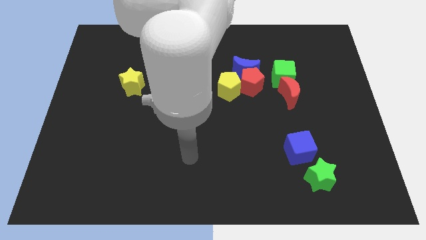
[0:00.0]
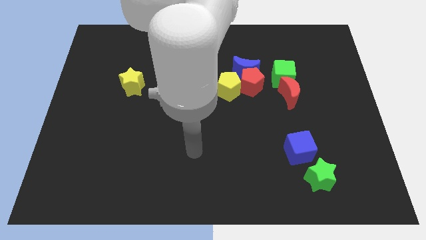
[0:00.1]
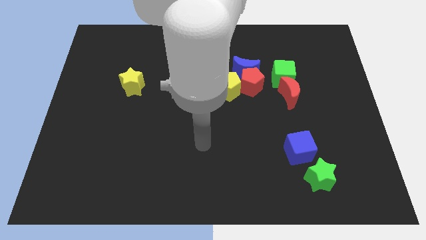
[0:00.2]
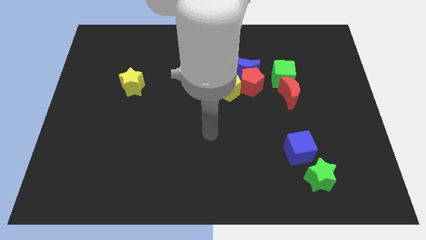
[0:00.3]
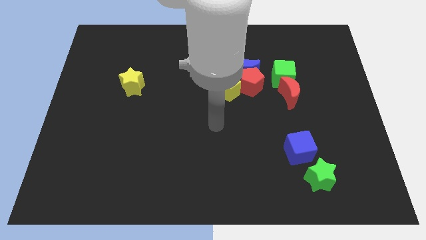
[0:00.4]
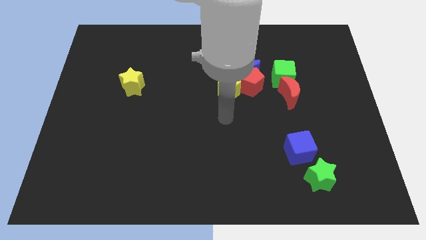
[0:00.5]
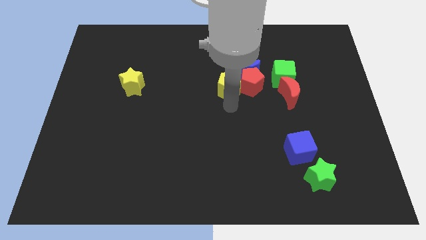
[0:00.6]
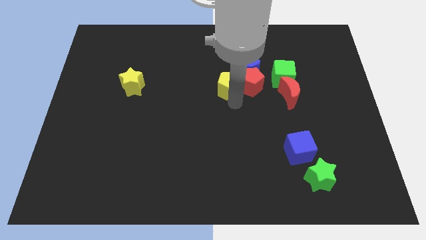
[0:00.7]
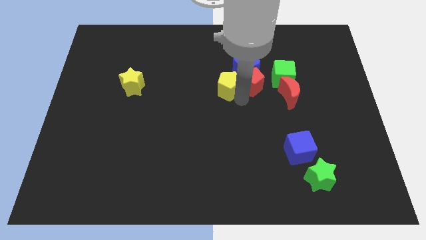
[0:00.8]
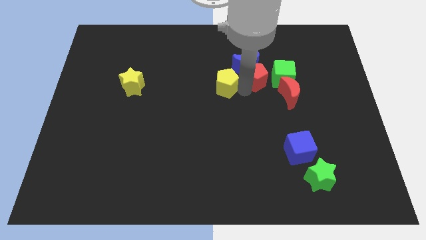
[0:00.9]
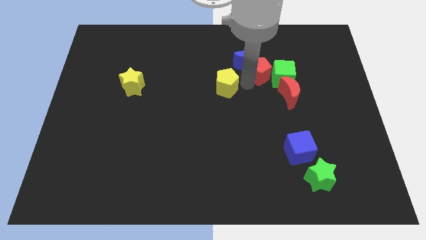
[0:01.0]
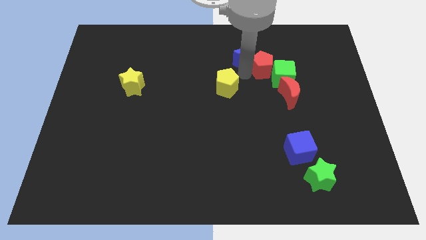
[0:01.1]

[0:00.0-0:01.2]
pull the yellow pentagon apart from the red pentagon and blue moon

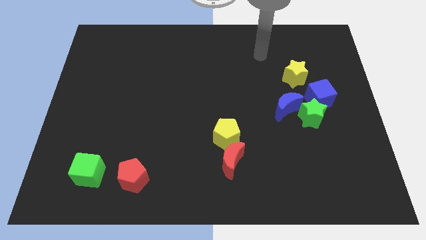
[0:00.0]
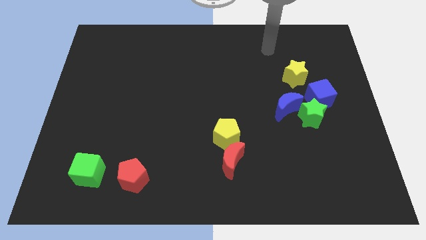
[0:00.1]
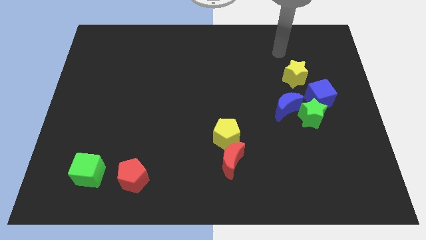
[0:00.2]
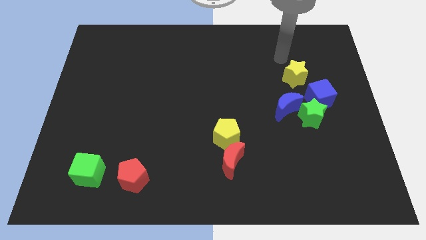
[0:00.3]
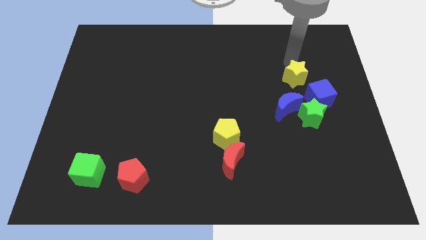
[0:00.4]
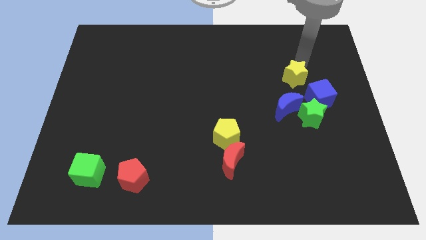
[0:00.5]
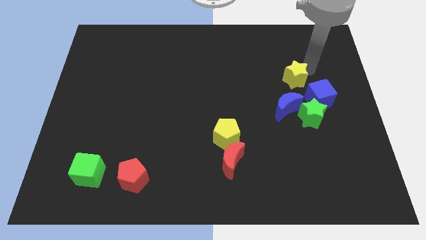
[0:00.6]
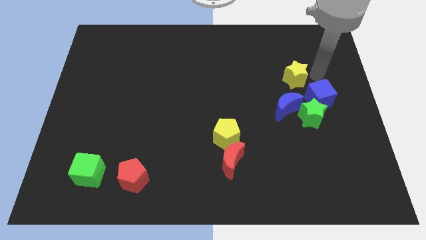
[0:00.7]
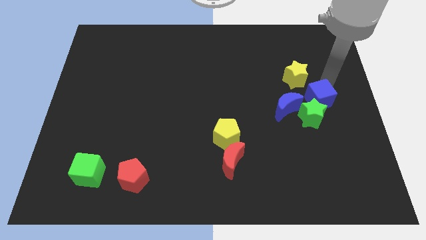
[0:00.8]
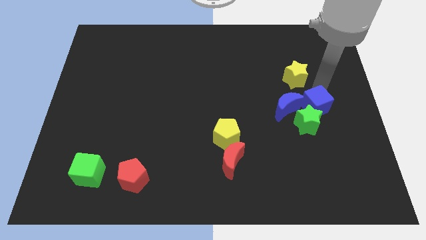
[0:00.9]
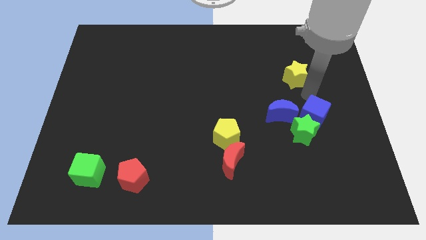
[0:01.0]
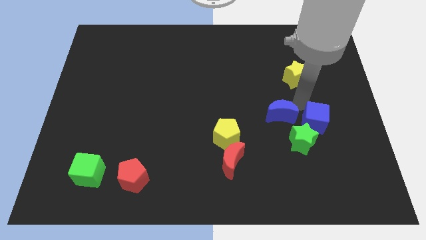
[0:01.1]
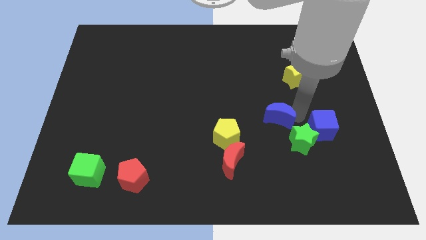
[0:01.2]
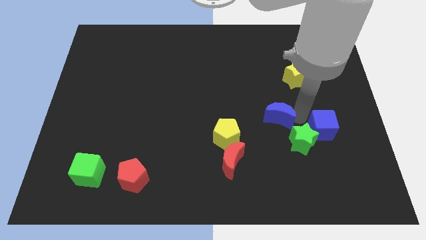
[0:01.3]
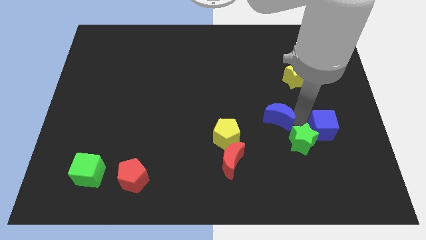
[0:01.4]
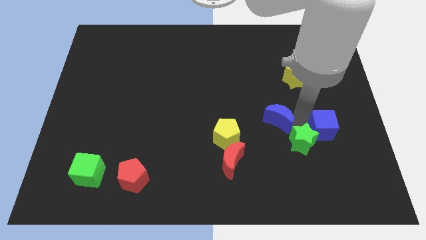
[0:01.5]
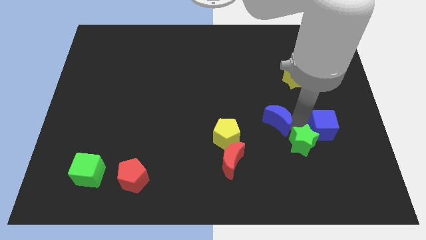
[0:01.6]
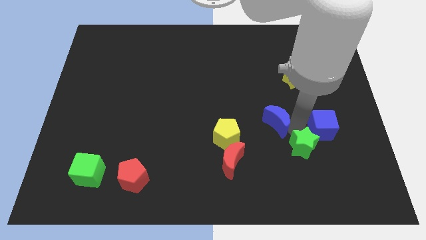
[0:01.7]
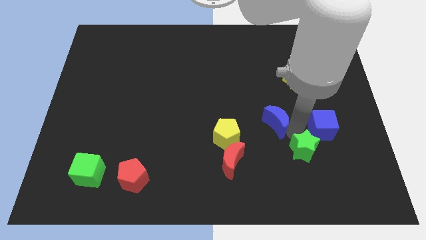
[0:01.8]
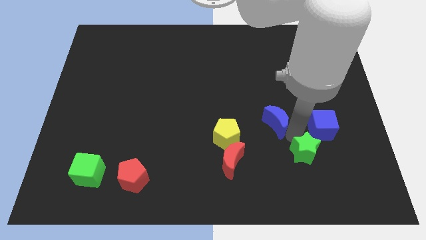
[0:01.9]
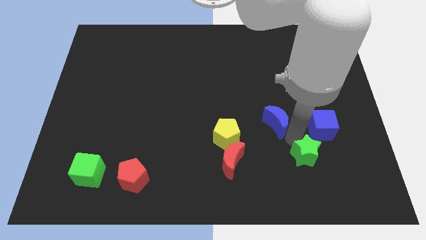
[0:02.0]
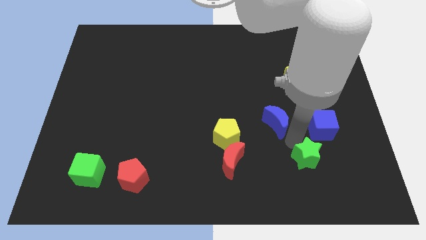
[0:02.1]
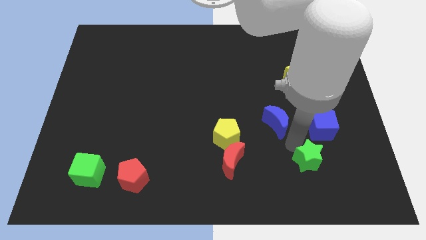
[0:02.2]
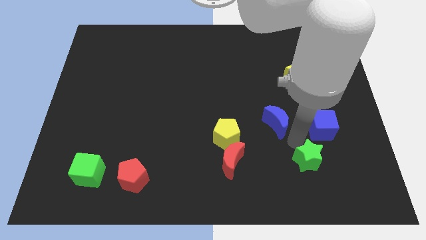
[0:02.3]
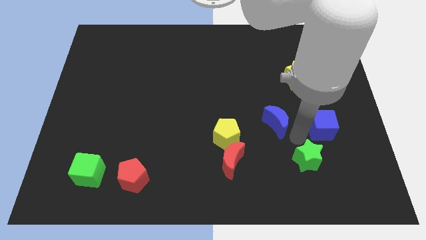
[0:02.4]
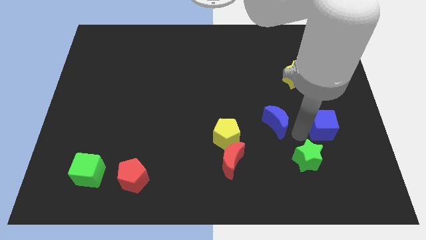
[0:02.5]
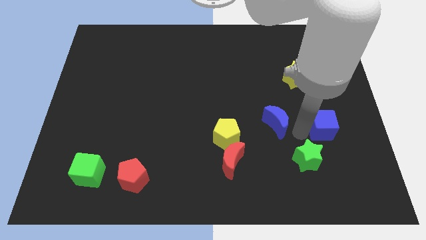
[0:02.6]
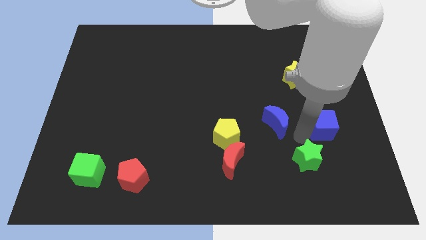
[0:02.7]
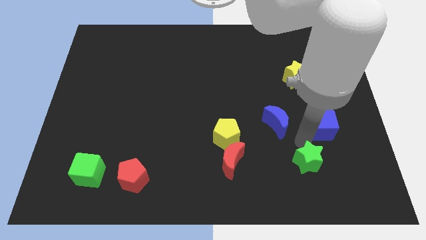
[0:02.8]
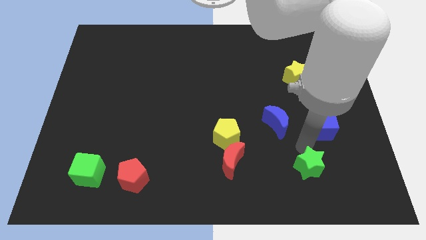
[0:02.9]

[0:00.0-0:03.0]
pull the green star apart from the blue cube and blue moon

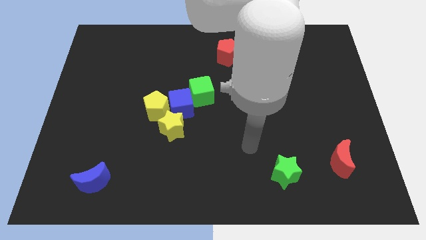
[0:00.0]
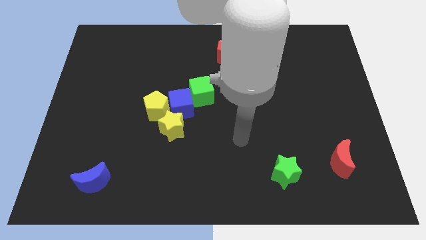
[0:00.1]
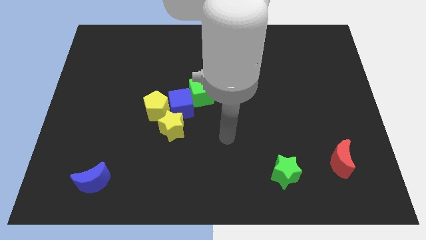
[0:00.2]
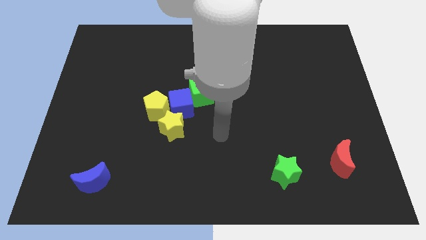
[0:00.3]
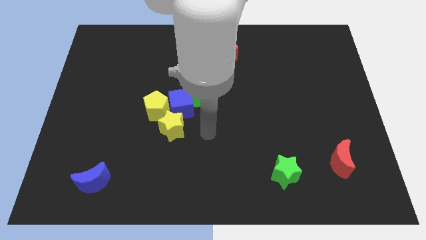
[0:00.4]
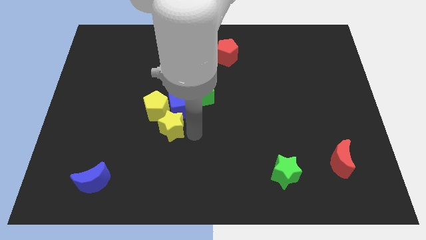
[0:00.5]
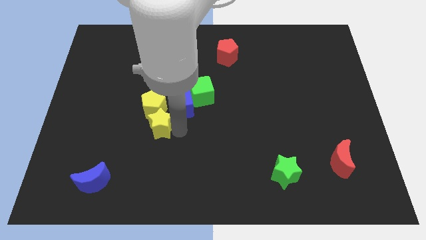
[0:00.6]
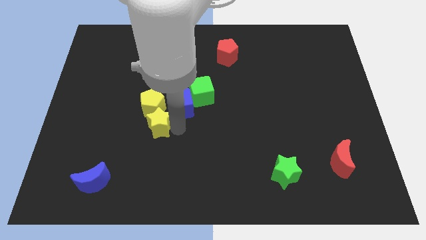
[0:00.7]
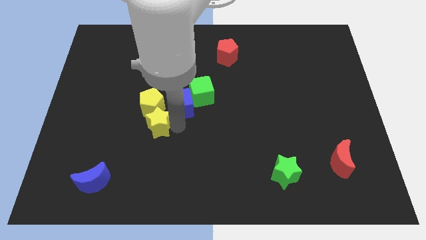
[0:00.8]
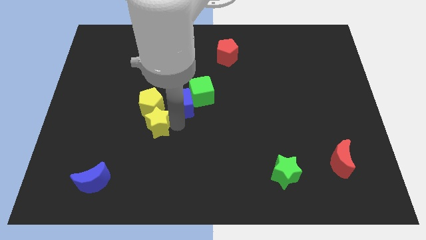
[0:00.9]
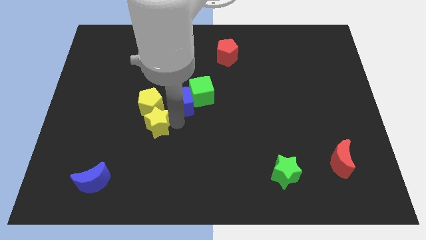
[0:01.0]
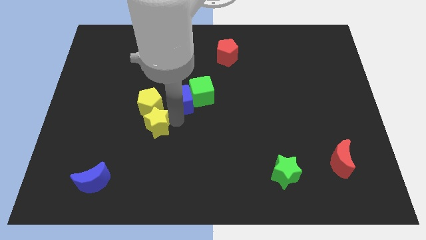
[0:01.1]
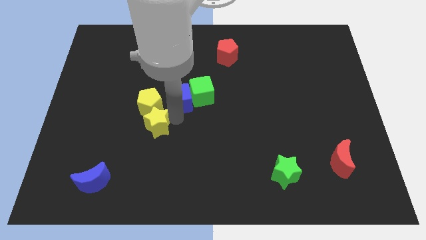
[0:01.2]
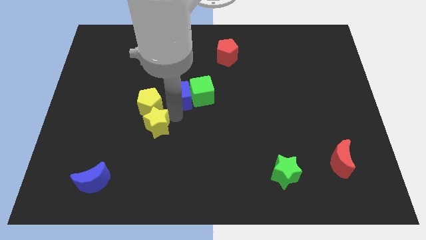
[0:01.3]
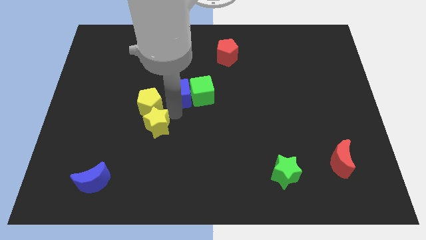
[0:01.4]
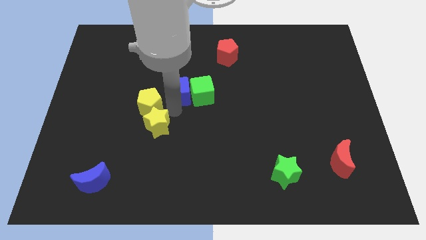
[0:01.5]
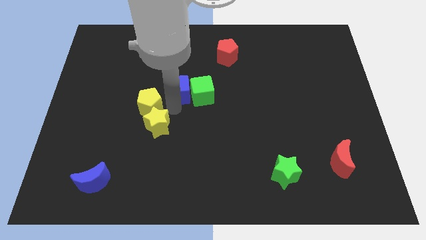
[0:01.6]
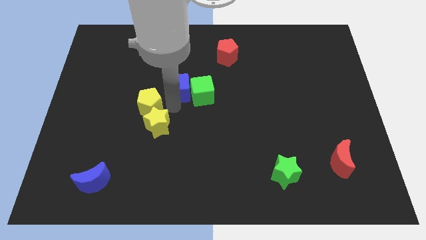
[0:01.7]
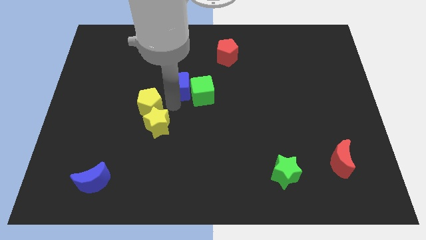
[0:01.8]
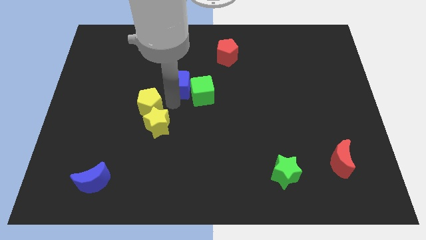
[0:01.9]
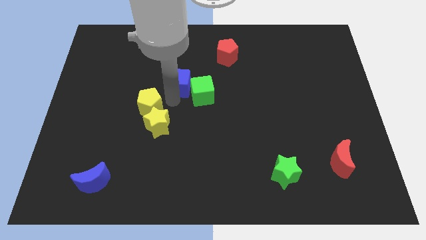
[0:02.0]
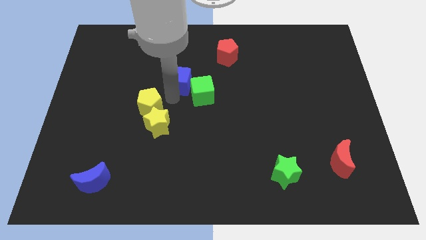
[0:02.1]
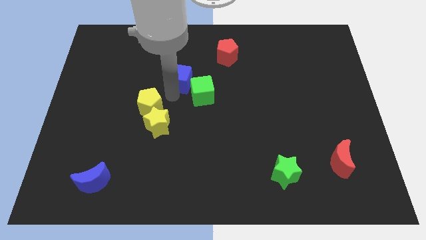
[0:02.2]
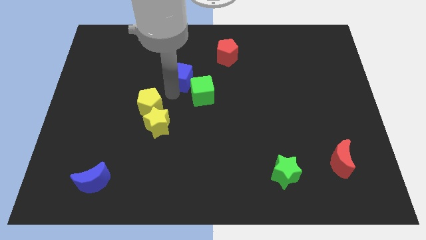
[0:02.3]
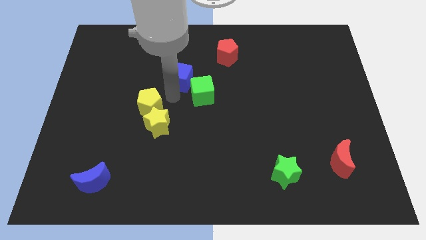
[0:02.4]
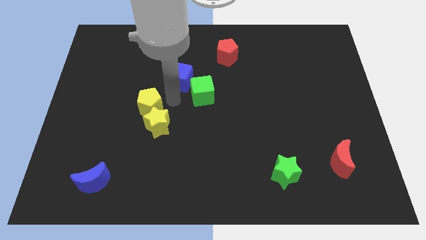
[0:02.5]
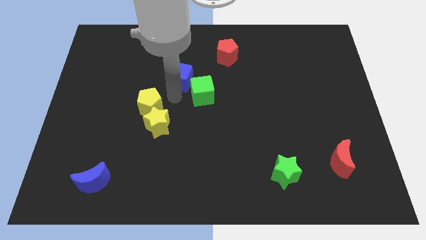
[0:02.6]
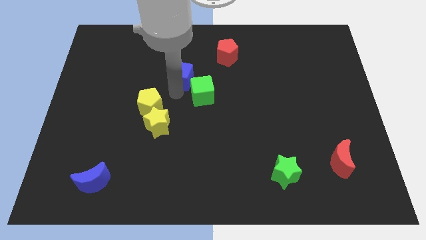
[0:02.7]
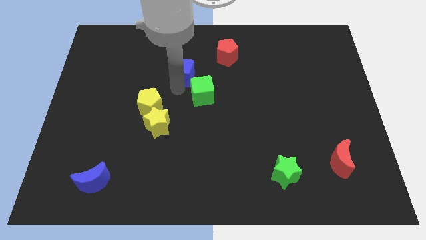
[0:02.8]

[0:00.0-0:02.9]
pull the blue cube apart from the yellow pentagon, green cube, and yellow star

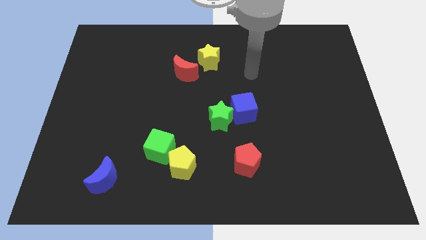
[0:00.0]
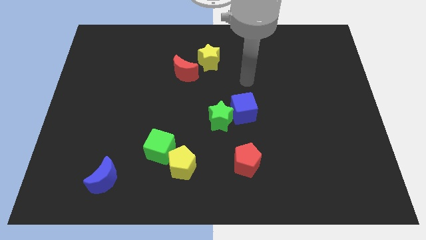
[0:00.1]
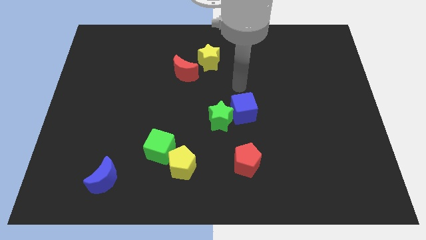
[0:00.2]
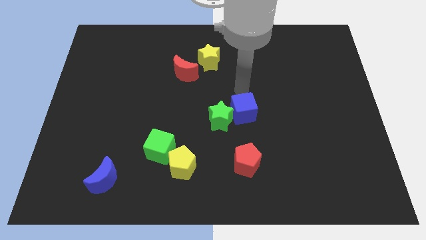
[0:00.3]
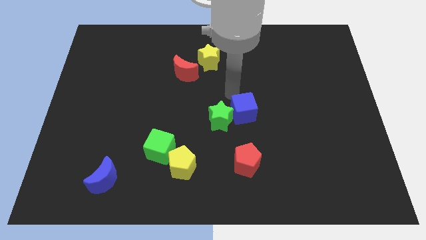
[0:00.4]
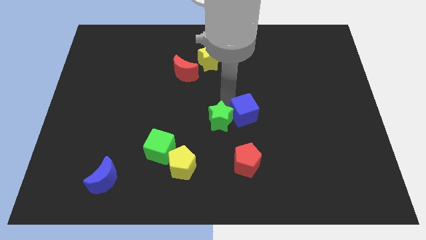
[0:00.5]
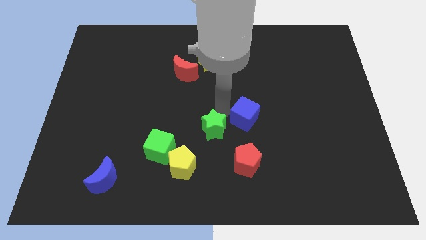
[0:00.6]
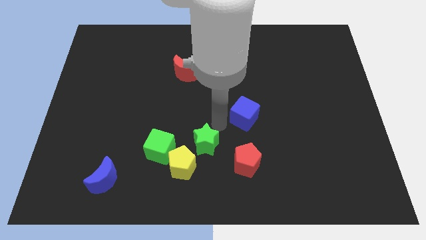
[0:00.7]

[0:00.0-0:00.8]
pull the blue cube apart from the green star

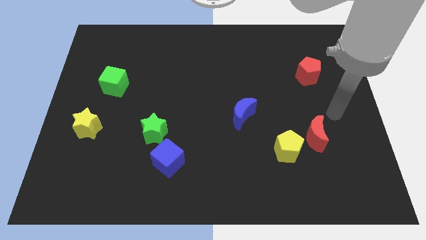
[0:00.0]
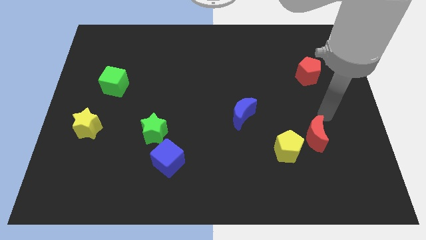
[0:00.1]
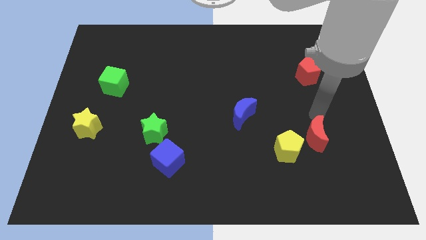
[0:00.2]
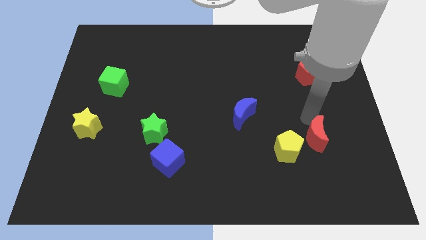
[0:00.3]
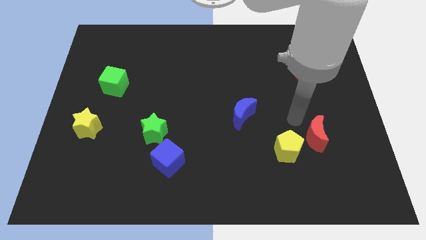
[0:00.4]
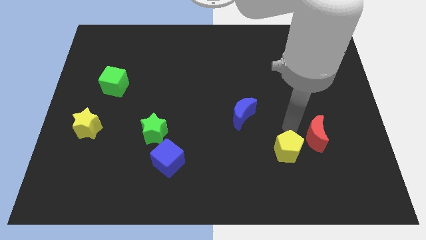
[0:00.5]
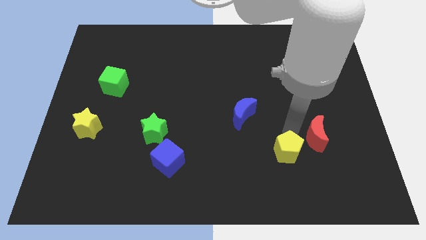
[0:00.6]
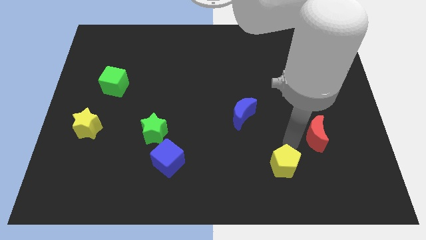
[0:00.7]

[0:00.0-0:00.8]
move the red moon away from the yellow pentagon

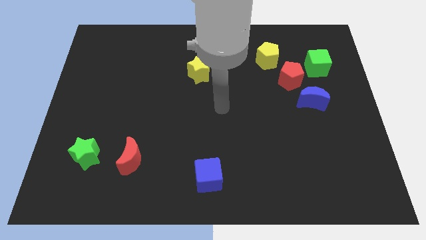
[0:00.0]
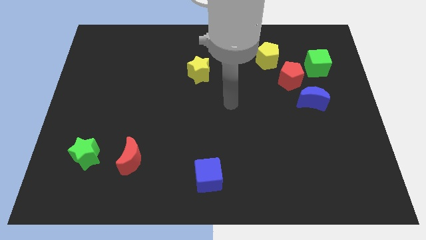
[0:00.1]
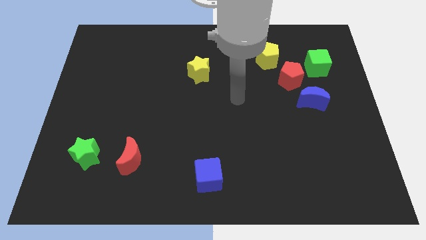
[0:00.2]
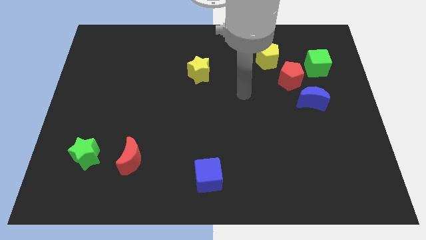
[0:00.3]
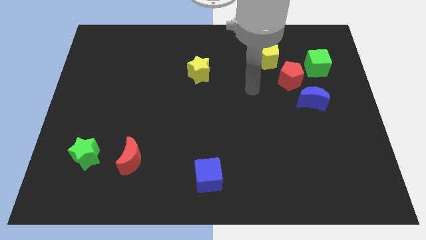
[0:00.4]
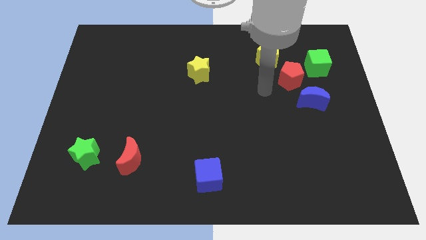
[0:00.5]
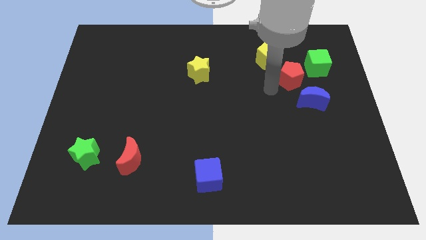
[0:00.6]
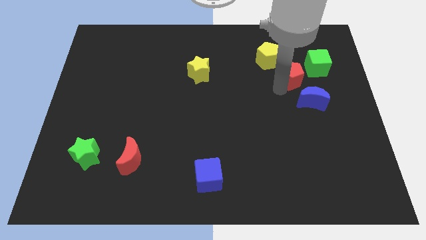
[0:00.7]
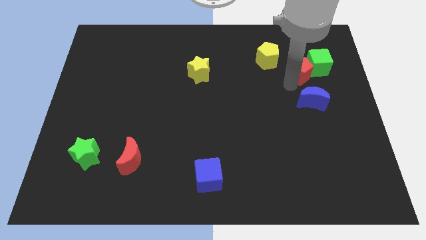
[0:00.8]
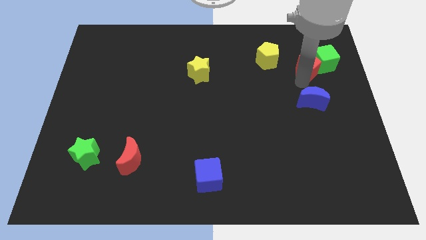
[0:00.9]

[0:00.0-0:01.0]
pull the blue moon apart from the red pentagon
